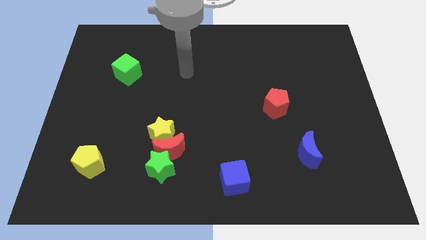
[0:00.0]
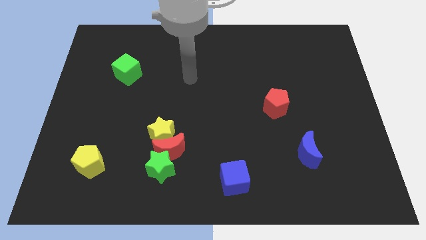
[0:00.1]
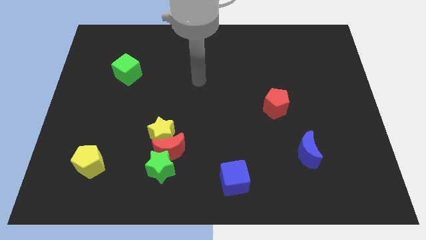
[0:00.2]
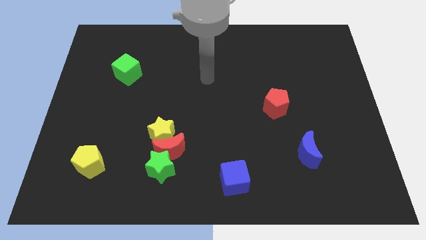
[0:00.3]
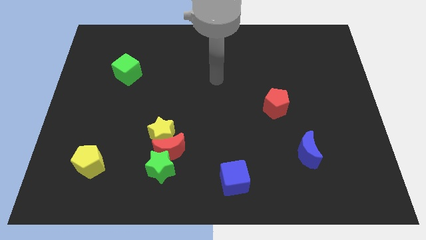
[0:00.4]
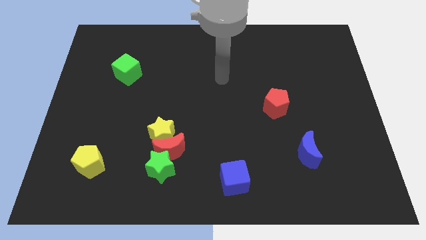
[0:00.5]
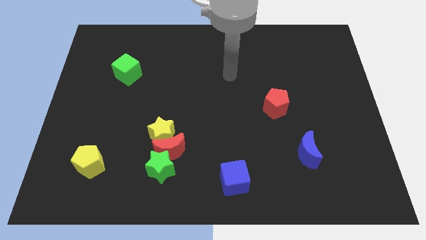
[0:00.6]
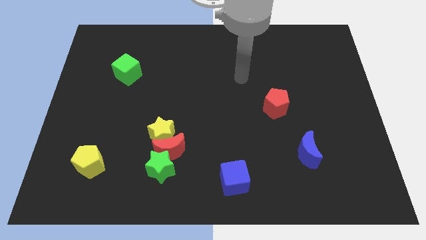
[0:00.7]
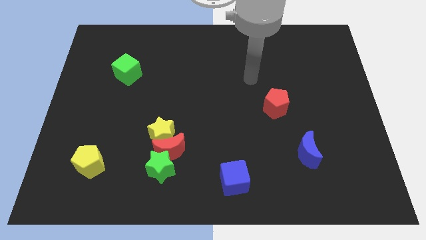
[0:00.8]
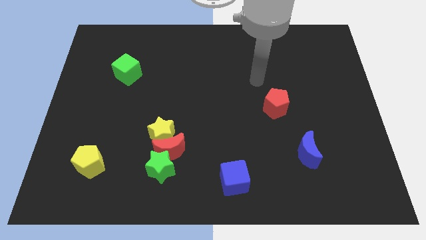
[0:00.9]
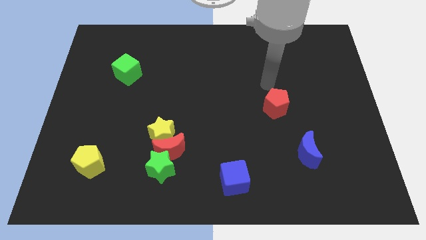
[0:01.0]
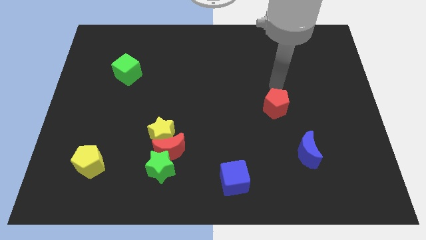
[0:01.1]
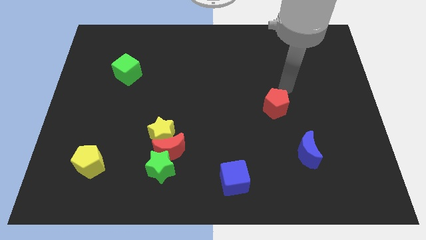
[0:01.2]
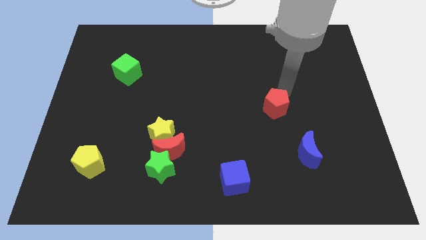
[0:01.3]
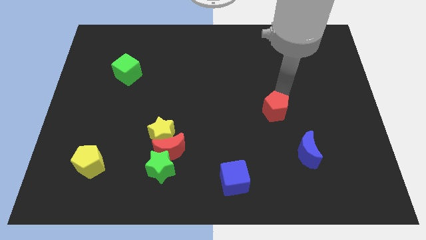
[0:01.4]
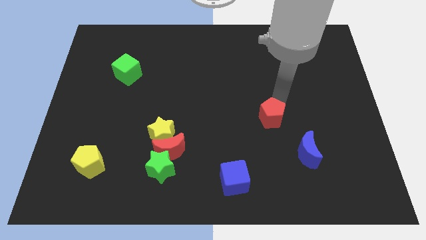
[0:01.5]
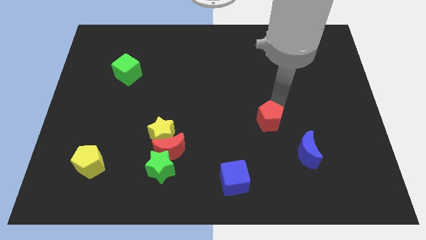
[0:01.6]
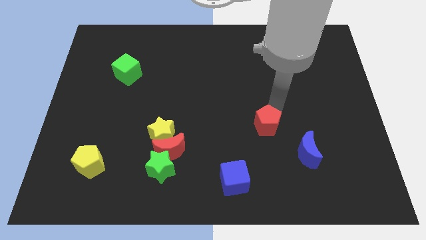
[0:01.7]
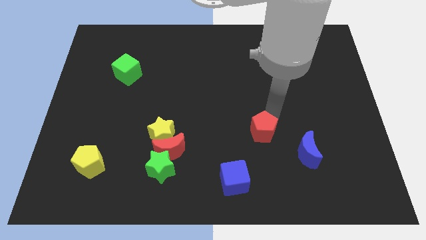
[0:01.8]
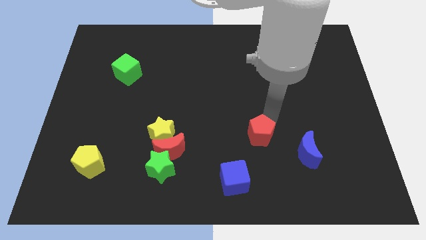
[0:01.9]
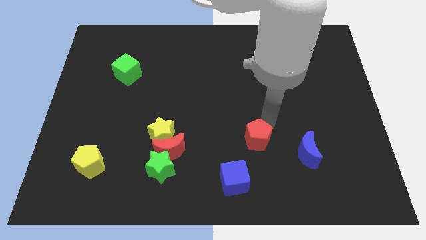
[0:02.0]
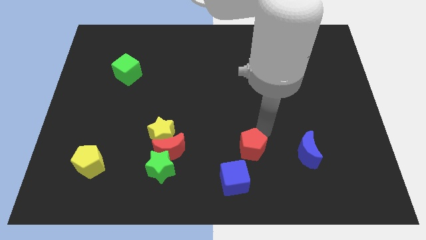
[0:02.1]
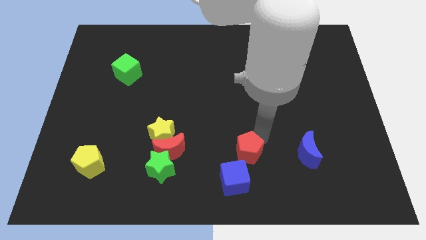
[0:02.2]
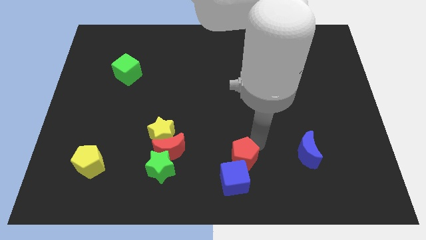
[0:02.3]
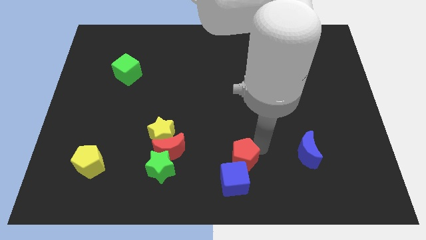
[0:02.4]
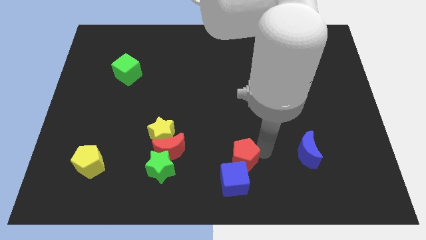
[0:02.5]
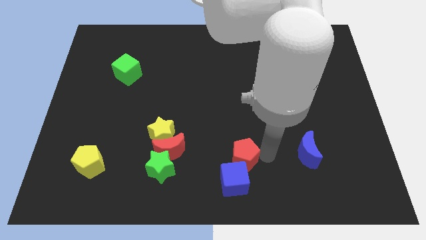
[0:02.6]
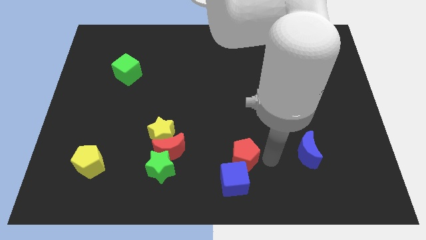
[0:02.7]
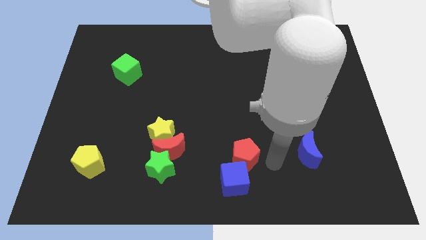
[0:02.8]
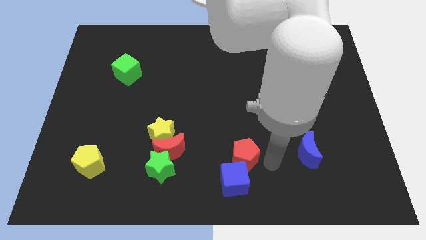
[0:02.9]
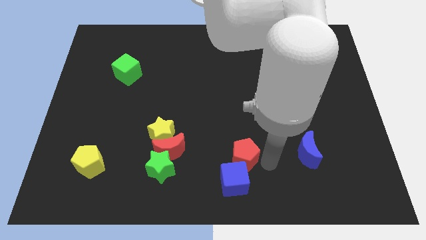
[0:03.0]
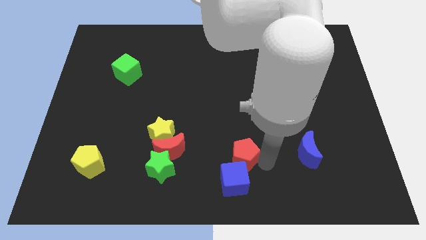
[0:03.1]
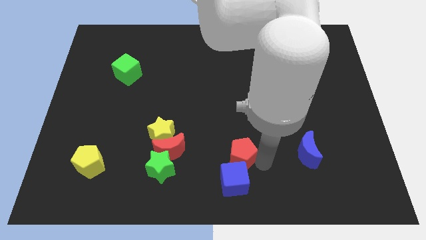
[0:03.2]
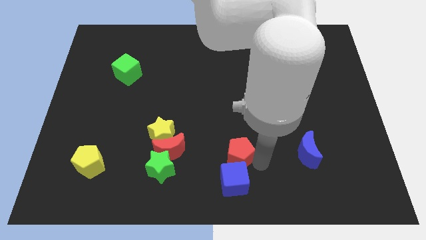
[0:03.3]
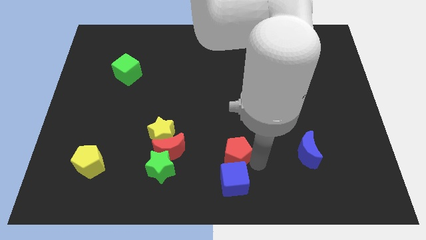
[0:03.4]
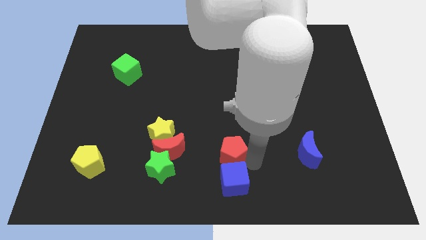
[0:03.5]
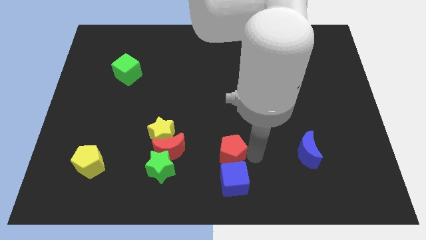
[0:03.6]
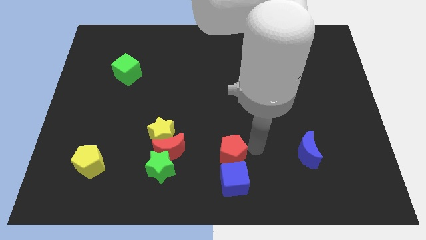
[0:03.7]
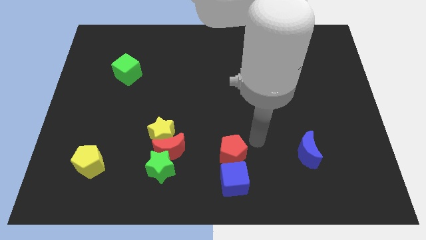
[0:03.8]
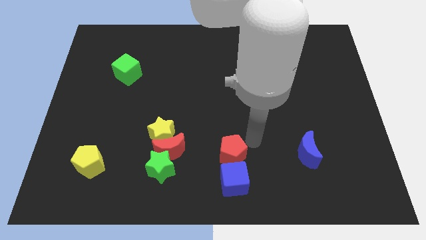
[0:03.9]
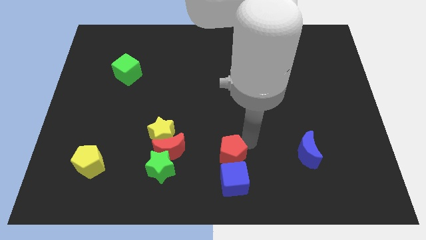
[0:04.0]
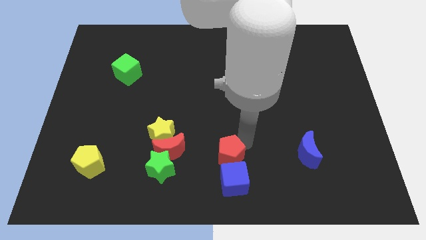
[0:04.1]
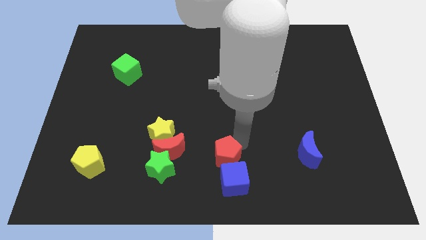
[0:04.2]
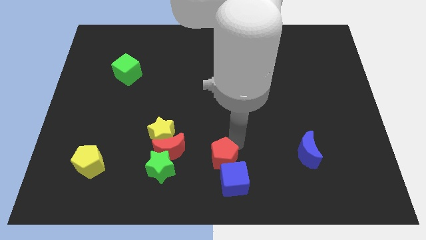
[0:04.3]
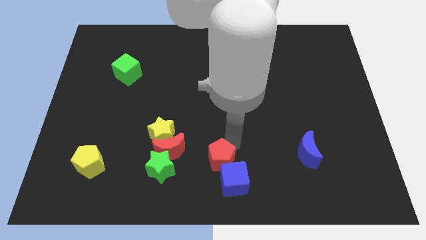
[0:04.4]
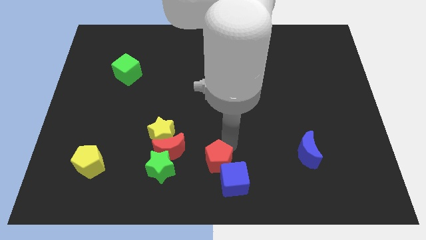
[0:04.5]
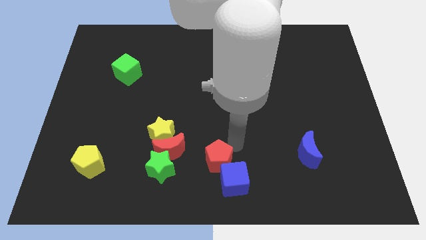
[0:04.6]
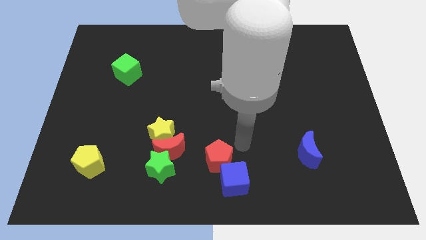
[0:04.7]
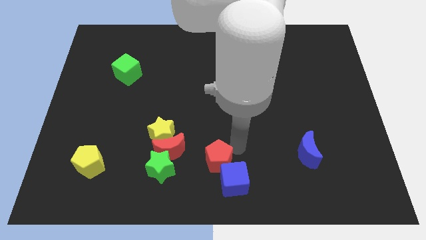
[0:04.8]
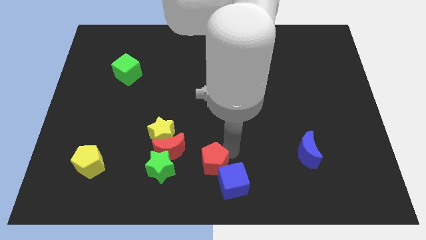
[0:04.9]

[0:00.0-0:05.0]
move the red pentagon to the bottom right of the red moon

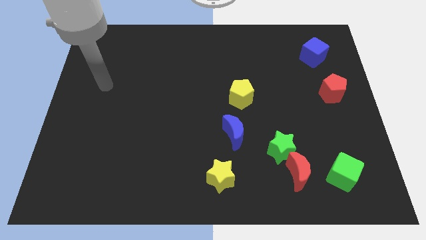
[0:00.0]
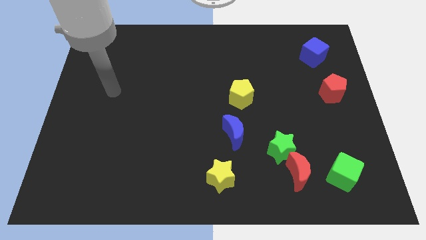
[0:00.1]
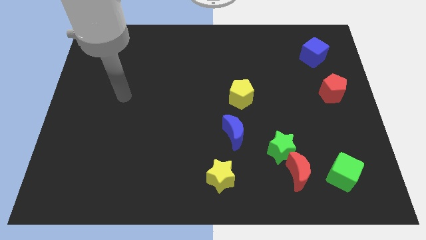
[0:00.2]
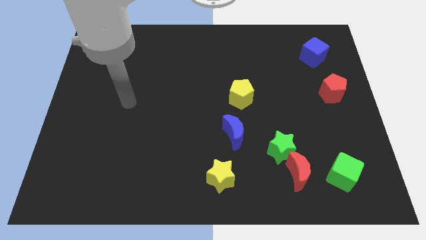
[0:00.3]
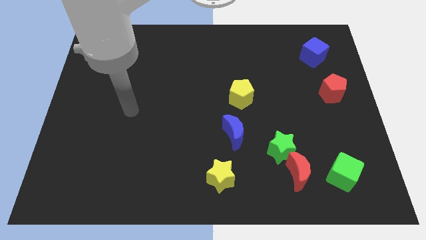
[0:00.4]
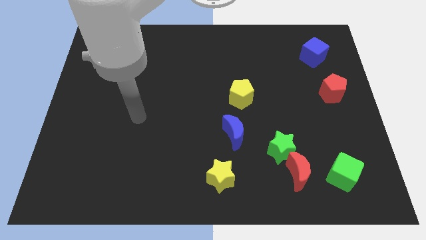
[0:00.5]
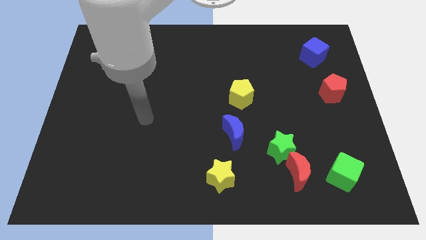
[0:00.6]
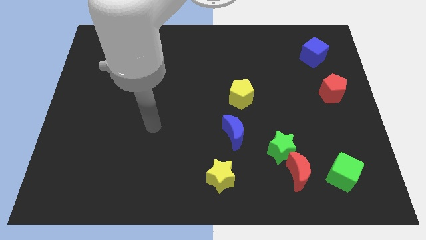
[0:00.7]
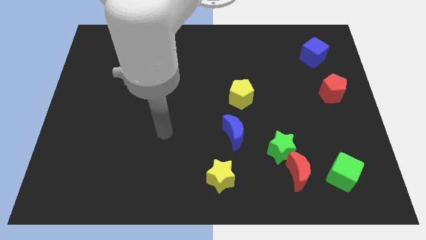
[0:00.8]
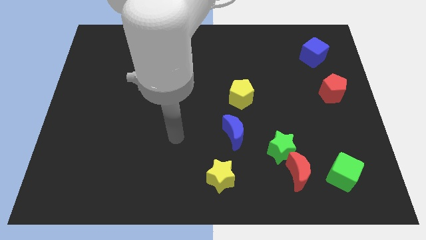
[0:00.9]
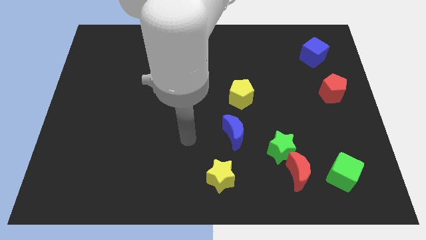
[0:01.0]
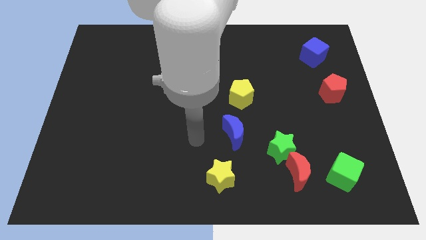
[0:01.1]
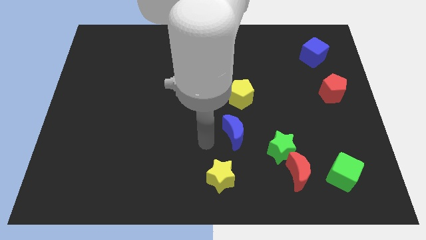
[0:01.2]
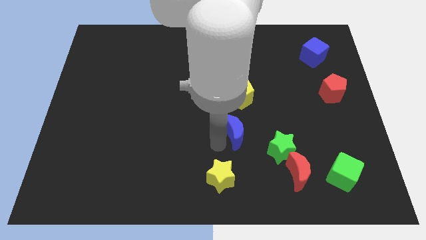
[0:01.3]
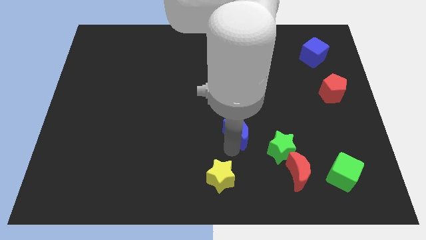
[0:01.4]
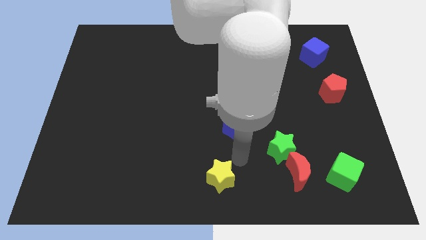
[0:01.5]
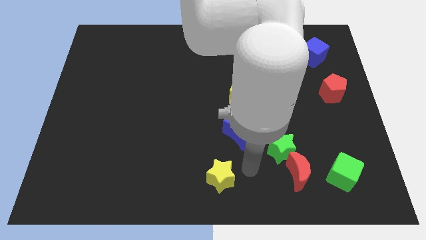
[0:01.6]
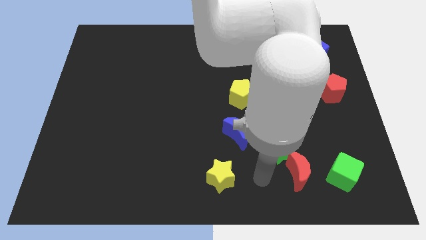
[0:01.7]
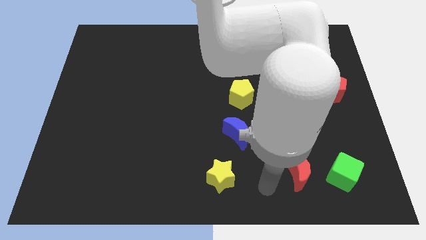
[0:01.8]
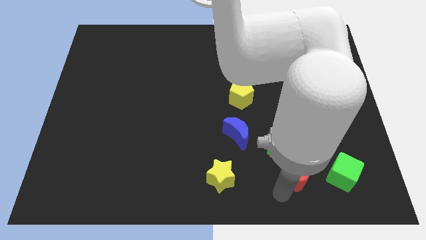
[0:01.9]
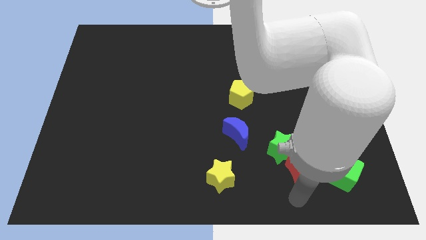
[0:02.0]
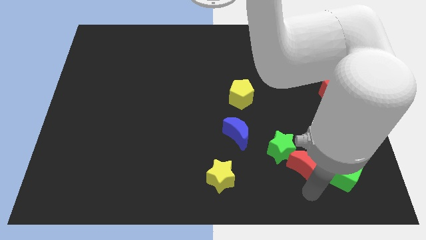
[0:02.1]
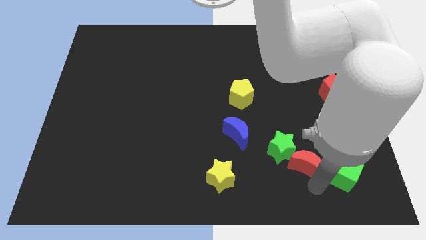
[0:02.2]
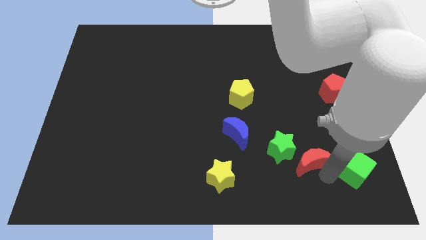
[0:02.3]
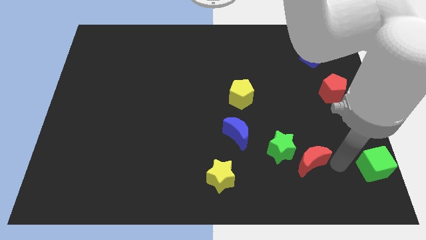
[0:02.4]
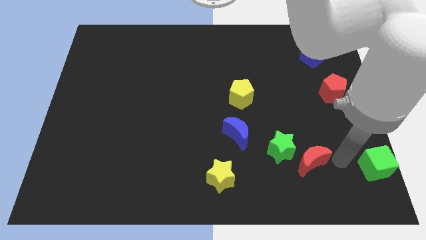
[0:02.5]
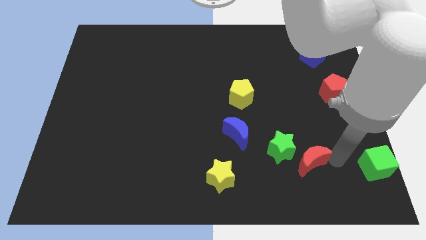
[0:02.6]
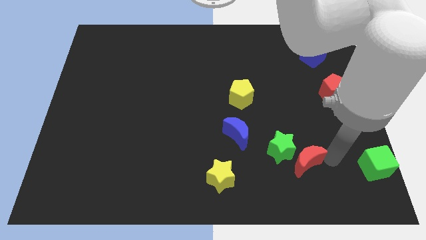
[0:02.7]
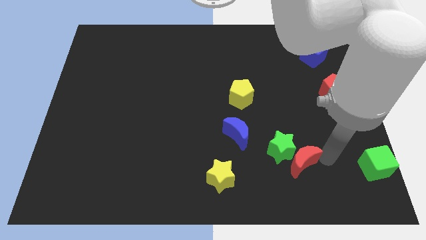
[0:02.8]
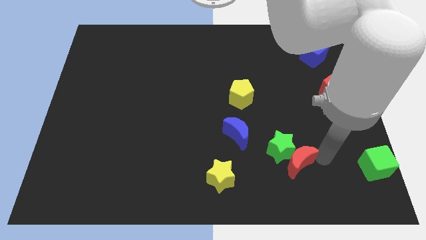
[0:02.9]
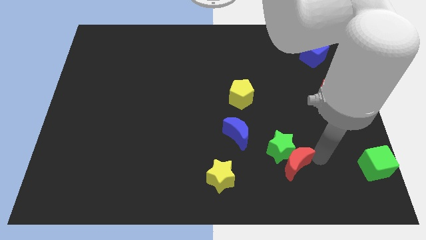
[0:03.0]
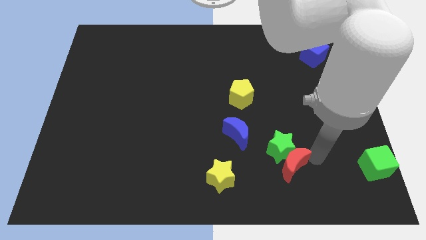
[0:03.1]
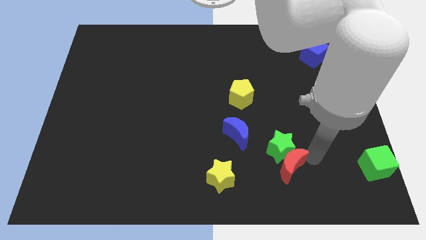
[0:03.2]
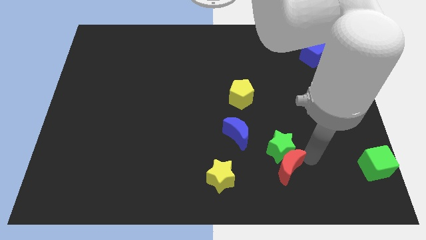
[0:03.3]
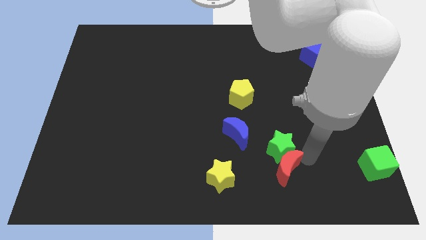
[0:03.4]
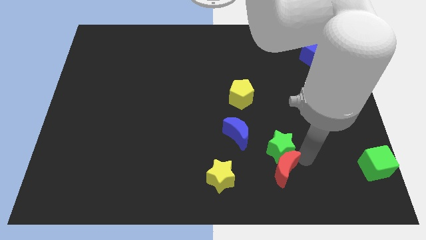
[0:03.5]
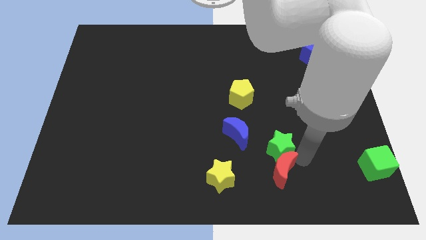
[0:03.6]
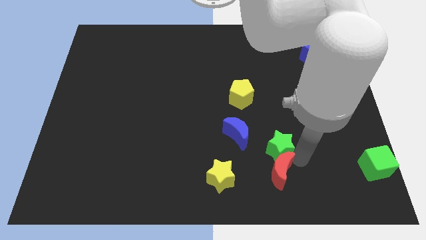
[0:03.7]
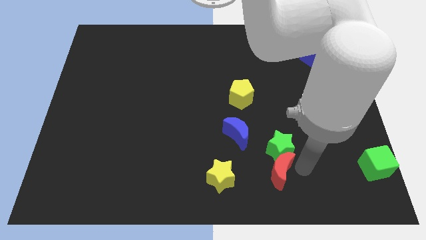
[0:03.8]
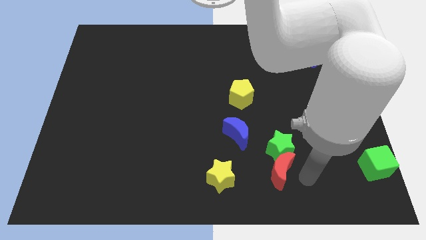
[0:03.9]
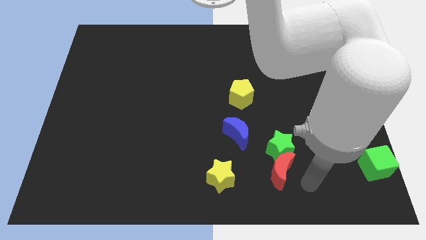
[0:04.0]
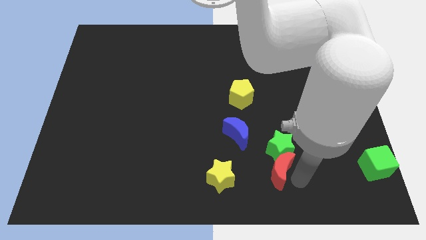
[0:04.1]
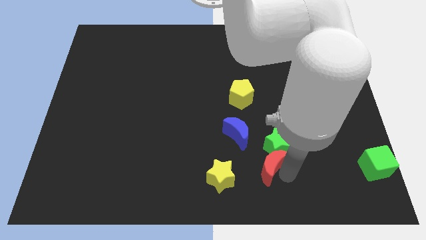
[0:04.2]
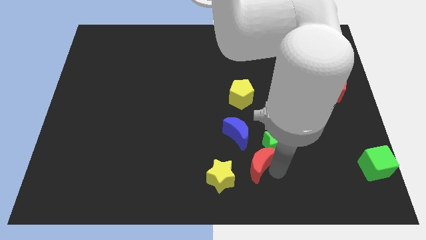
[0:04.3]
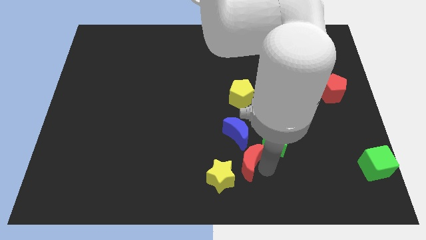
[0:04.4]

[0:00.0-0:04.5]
move the red moon just left of the green star
